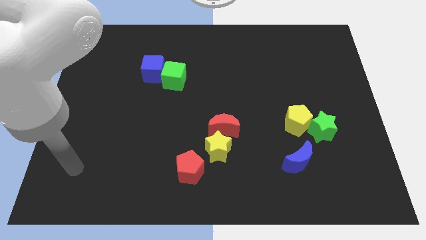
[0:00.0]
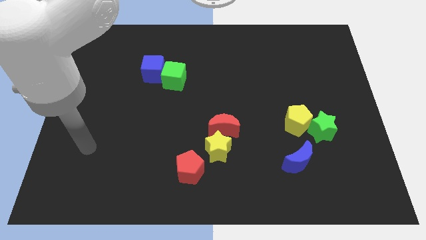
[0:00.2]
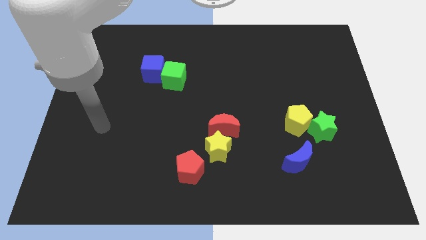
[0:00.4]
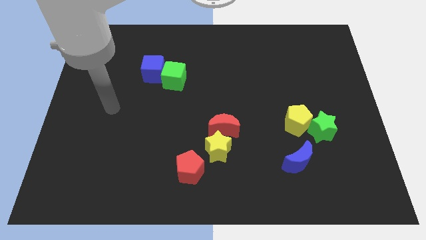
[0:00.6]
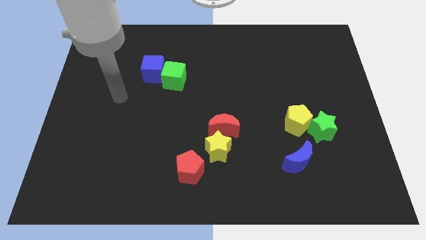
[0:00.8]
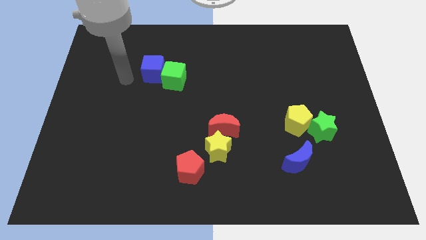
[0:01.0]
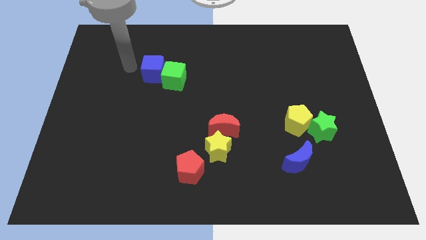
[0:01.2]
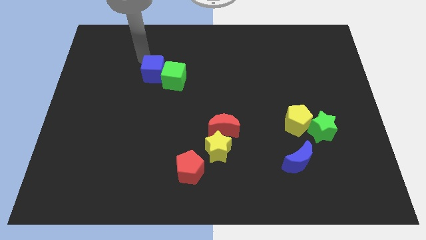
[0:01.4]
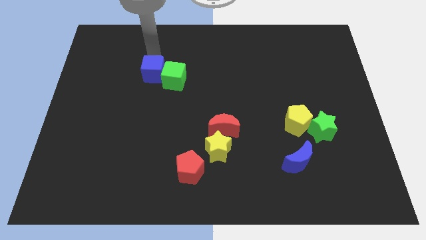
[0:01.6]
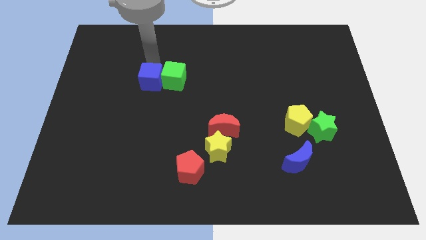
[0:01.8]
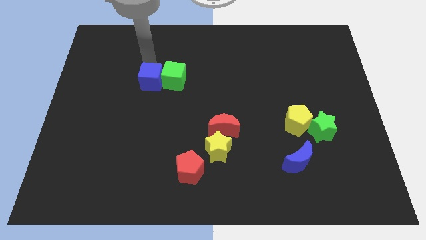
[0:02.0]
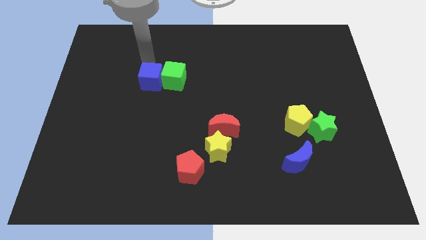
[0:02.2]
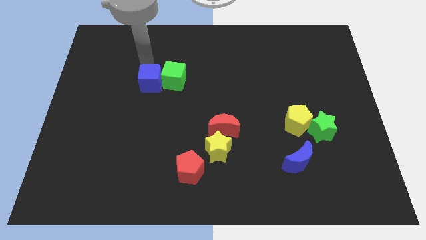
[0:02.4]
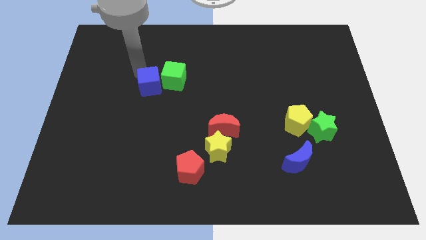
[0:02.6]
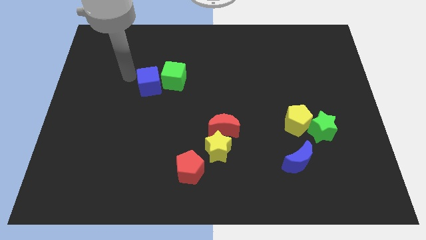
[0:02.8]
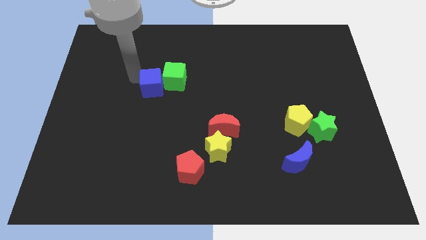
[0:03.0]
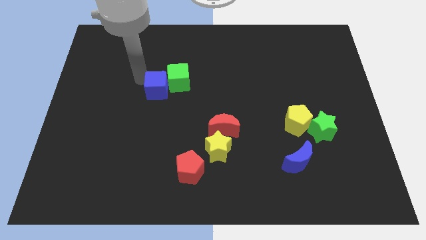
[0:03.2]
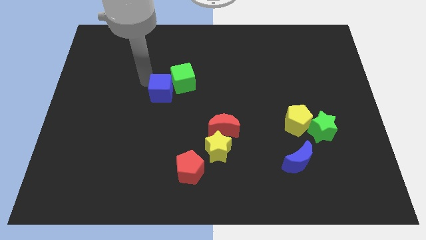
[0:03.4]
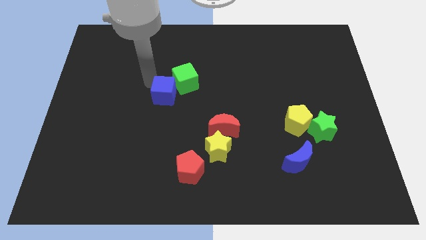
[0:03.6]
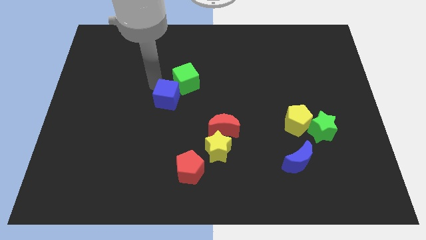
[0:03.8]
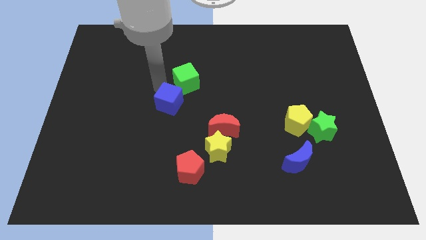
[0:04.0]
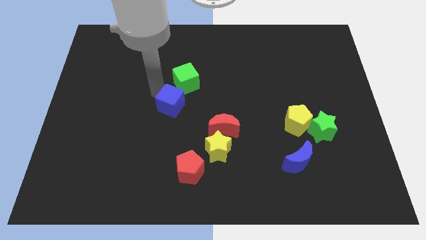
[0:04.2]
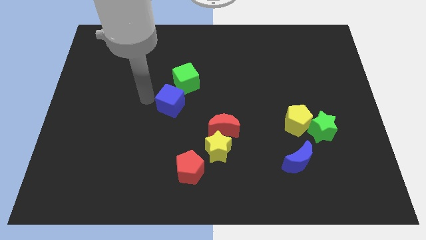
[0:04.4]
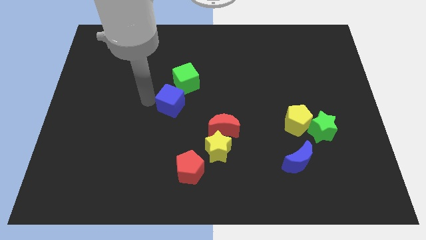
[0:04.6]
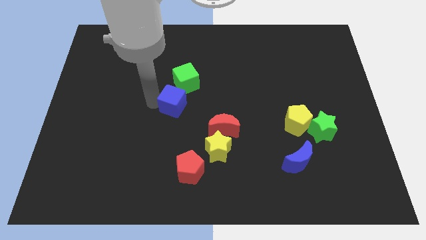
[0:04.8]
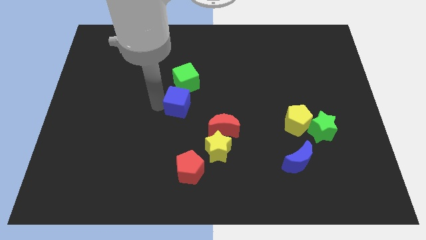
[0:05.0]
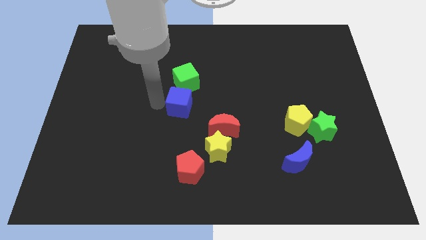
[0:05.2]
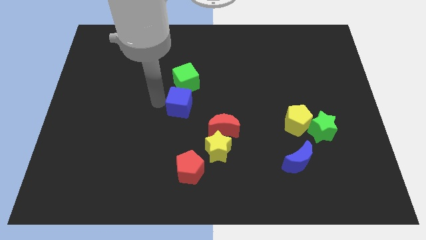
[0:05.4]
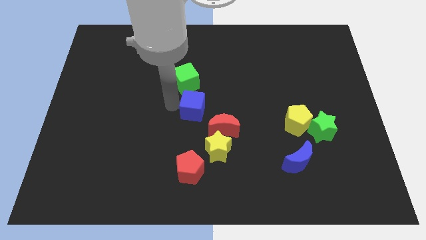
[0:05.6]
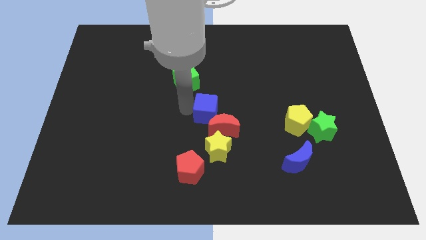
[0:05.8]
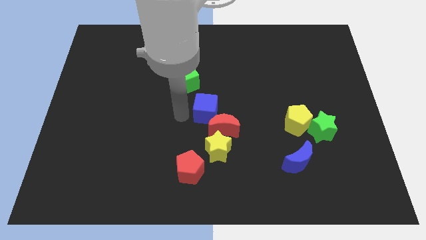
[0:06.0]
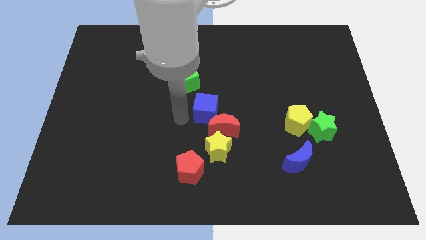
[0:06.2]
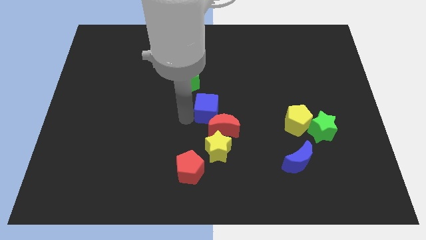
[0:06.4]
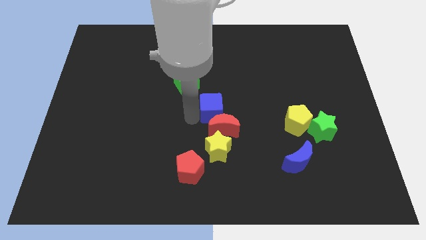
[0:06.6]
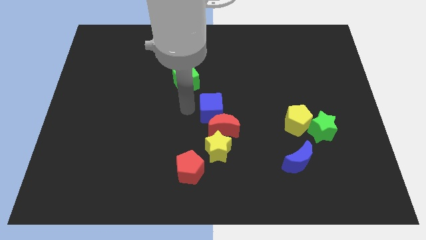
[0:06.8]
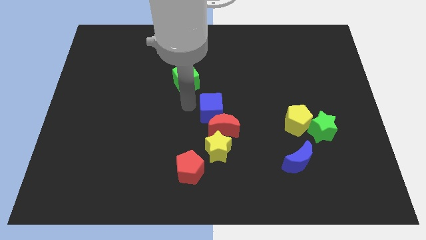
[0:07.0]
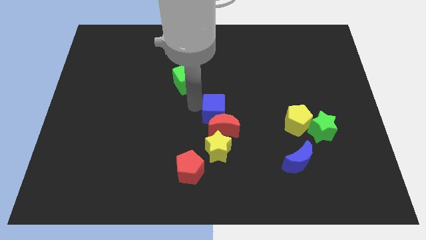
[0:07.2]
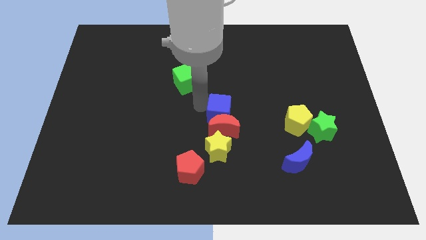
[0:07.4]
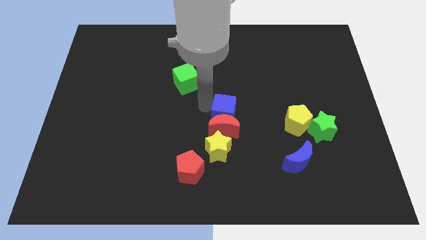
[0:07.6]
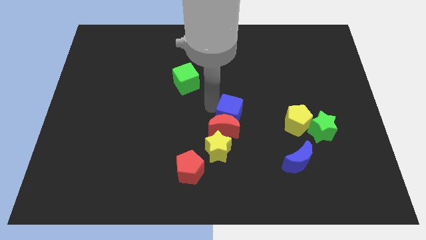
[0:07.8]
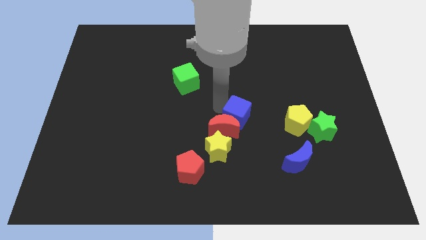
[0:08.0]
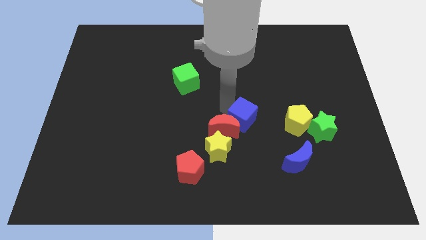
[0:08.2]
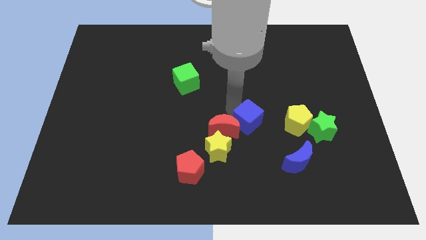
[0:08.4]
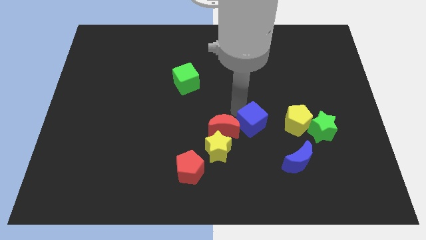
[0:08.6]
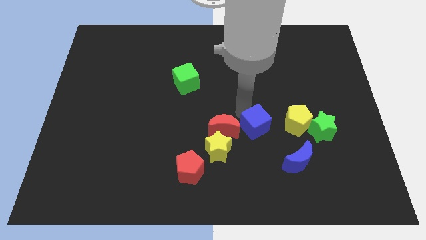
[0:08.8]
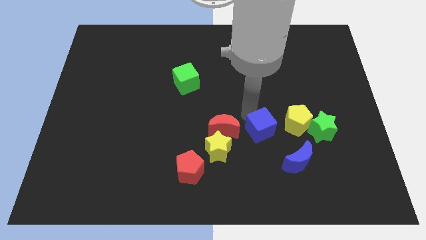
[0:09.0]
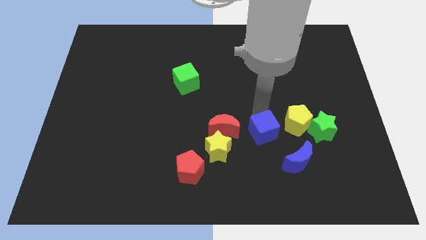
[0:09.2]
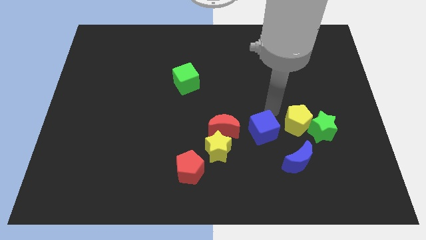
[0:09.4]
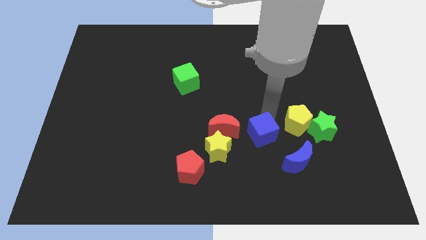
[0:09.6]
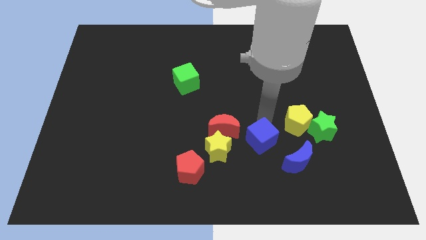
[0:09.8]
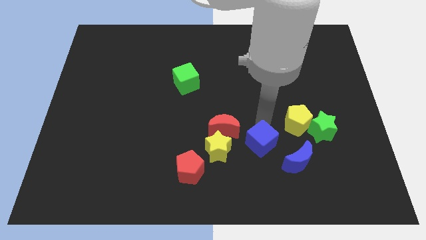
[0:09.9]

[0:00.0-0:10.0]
put the blue cube left of the blue moon

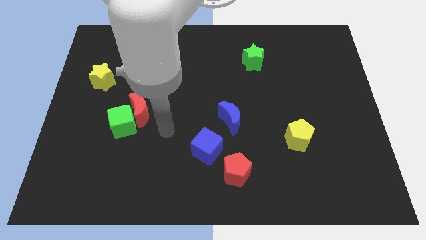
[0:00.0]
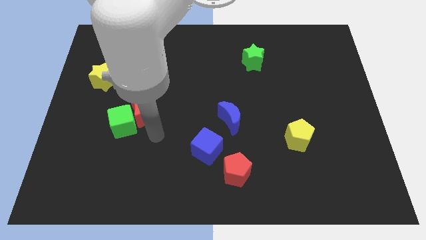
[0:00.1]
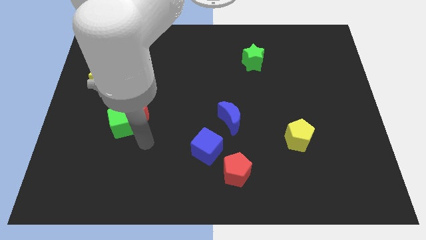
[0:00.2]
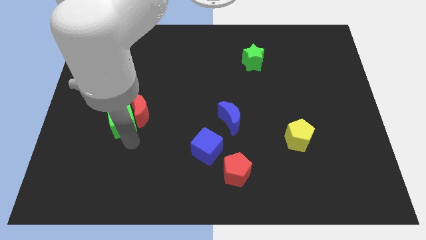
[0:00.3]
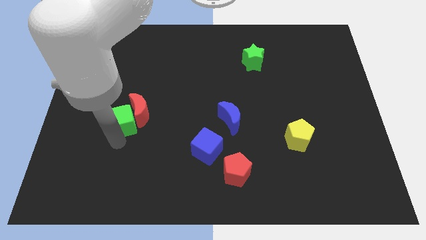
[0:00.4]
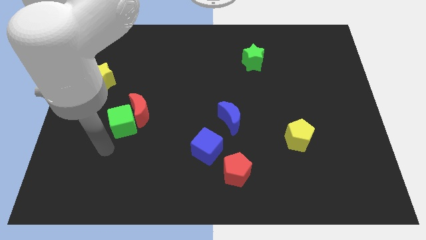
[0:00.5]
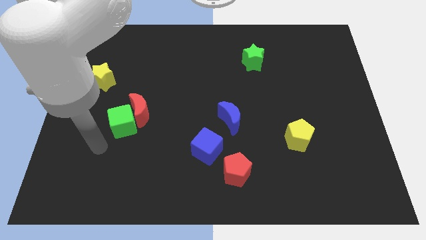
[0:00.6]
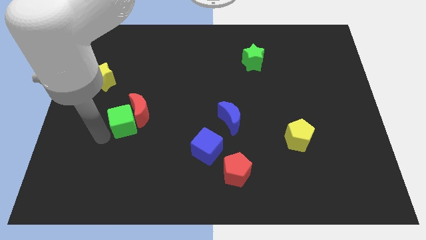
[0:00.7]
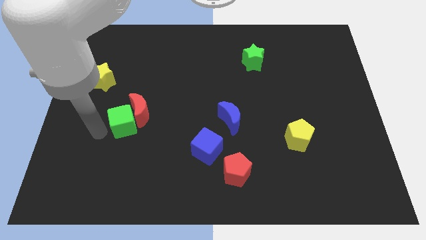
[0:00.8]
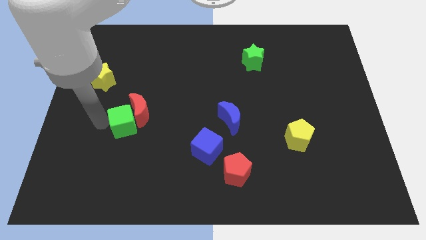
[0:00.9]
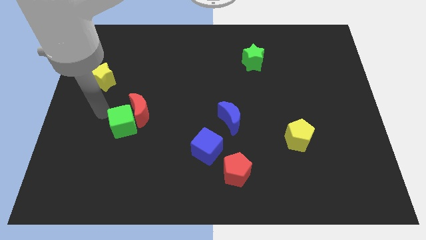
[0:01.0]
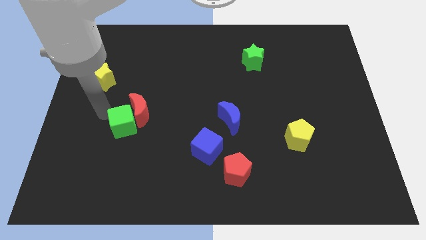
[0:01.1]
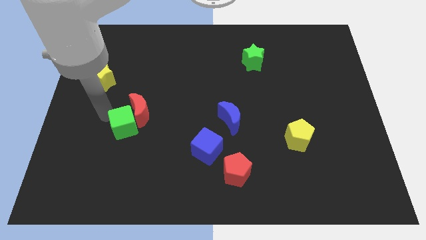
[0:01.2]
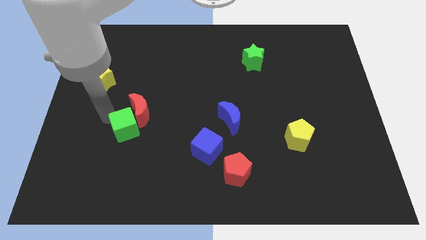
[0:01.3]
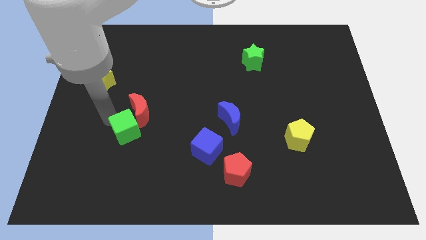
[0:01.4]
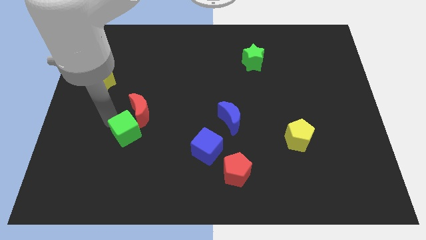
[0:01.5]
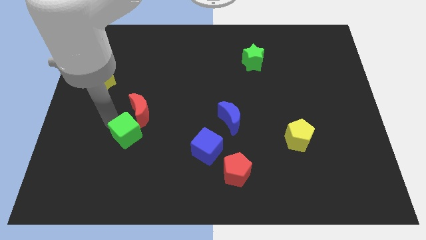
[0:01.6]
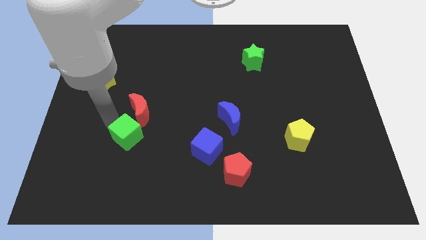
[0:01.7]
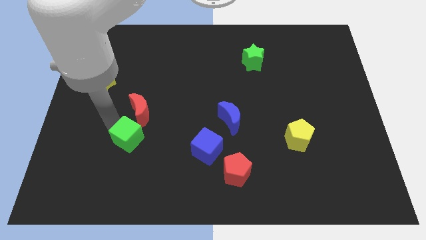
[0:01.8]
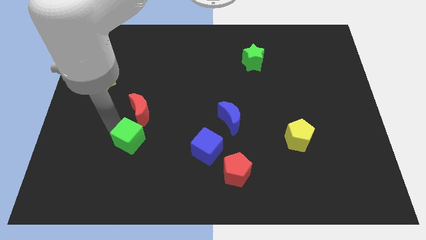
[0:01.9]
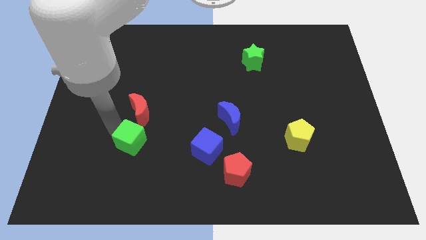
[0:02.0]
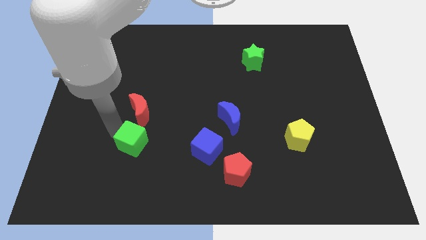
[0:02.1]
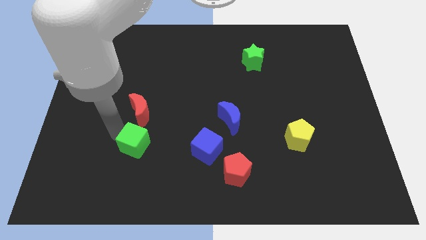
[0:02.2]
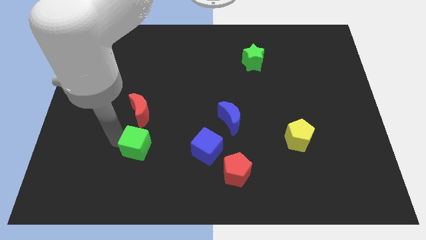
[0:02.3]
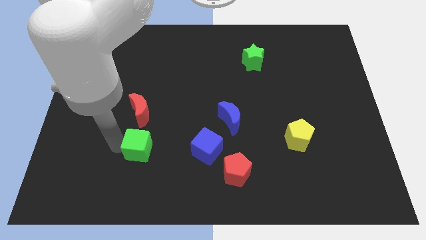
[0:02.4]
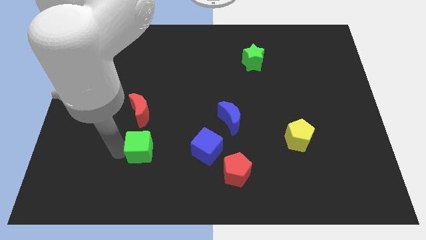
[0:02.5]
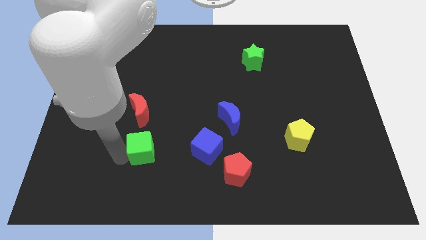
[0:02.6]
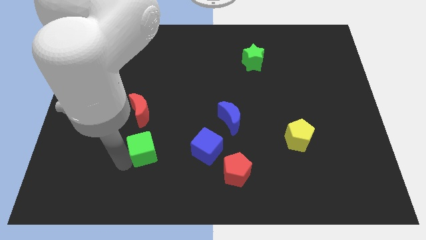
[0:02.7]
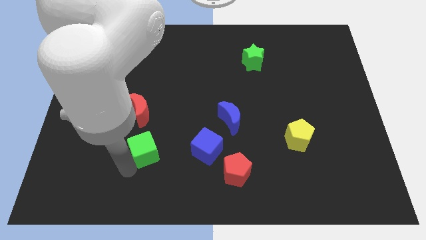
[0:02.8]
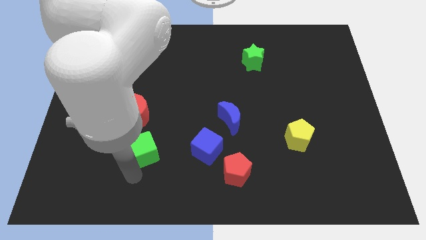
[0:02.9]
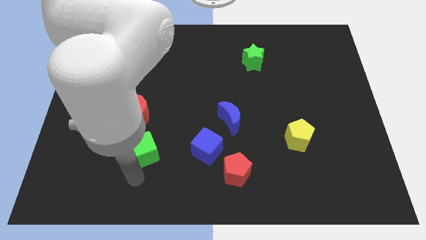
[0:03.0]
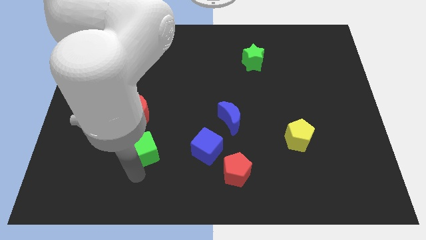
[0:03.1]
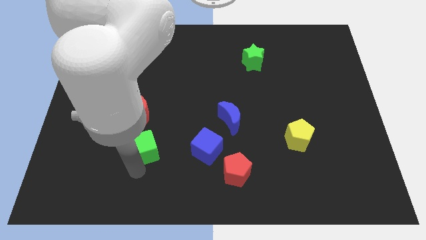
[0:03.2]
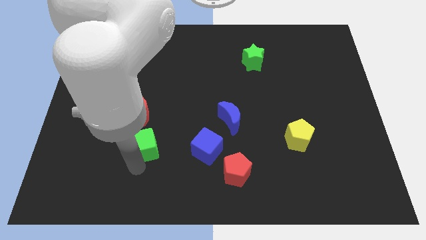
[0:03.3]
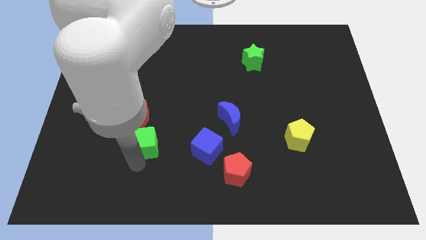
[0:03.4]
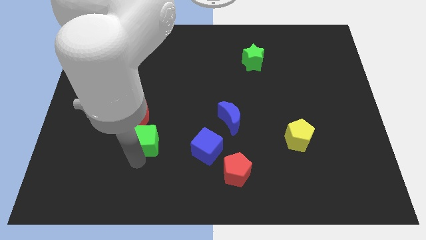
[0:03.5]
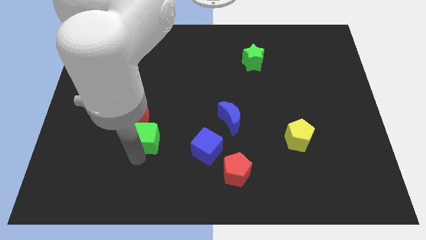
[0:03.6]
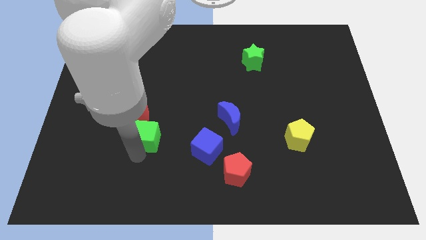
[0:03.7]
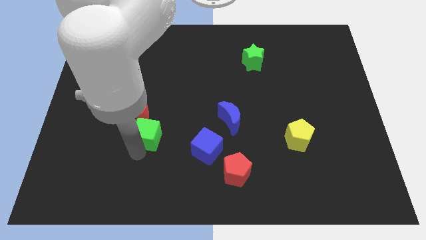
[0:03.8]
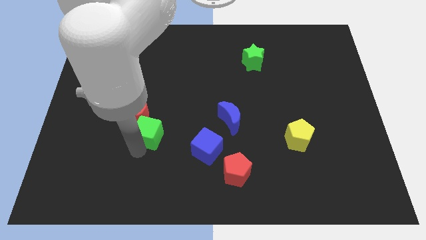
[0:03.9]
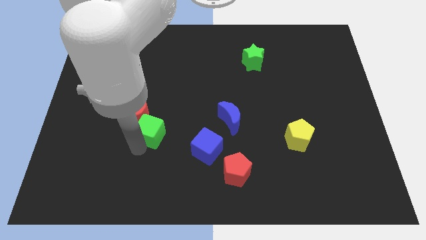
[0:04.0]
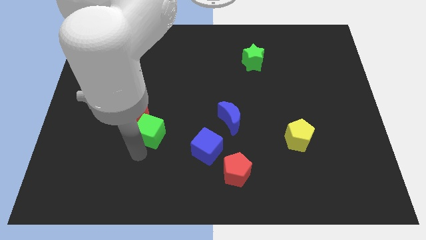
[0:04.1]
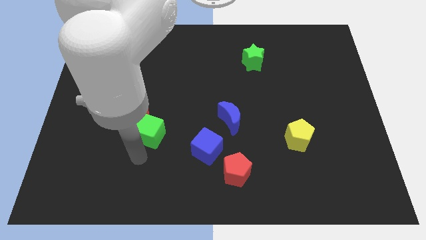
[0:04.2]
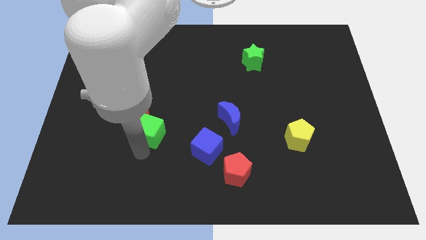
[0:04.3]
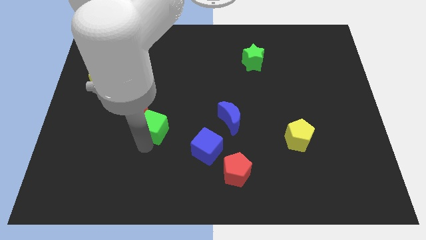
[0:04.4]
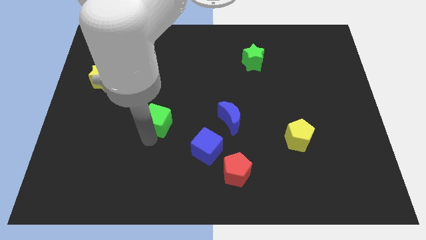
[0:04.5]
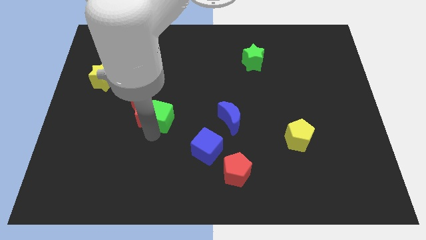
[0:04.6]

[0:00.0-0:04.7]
slide the green cube to the top right side of the red moon
